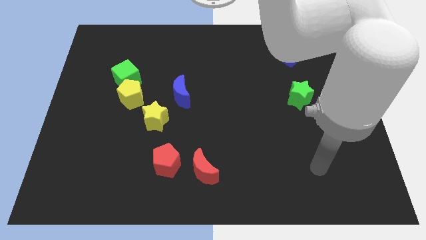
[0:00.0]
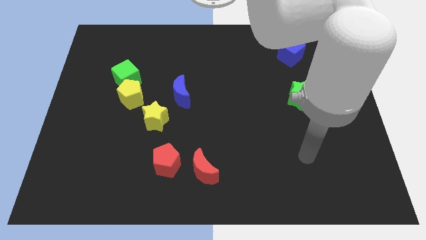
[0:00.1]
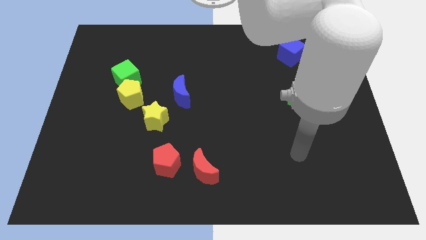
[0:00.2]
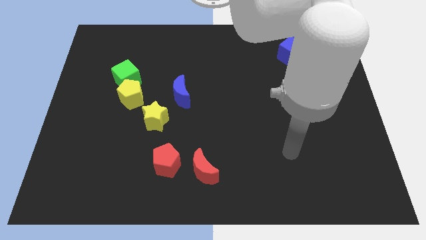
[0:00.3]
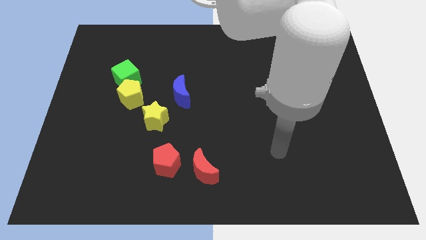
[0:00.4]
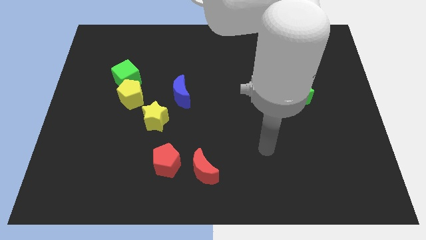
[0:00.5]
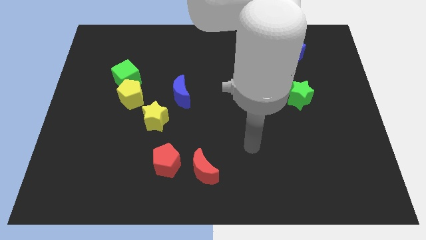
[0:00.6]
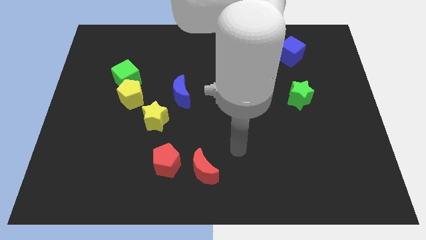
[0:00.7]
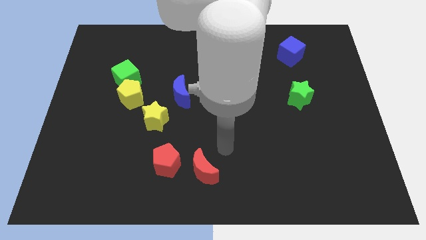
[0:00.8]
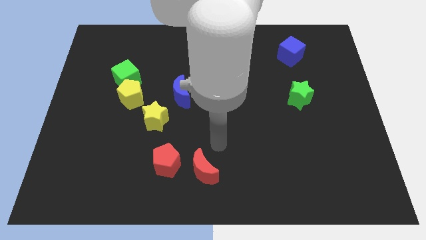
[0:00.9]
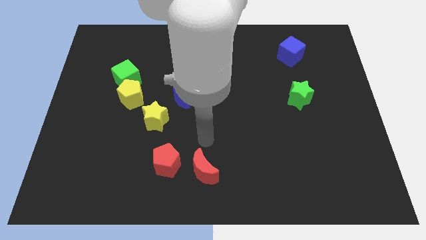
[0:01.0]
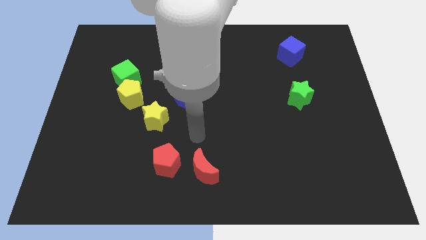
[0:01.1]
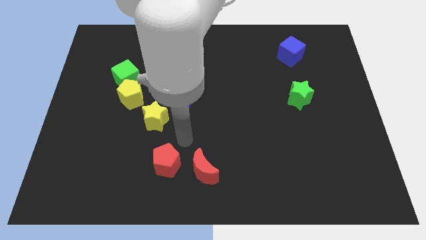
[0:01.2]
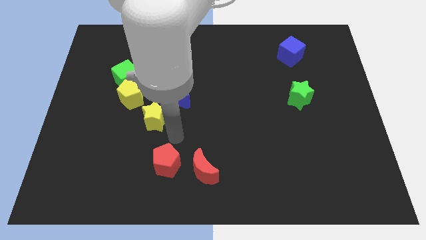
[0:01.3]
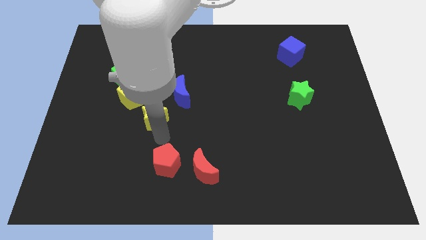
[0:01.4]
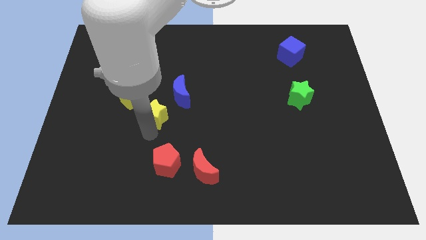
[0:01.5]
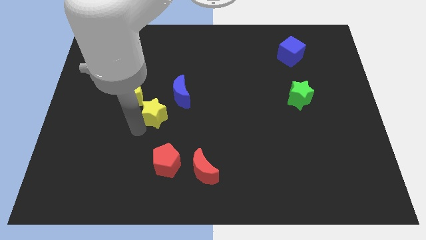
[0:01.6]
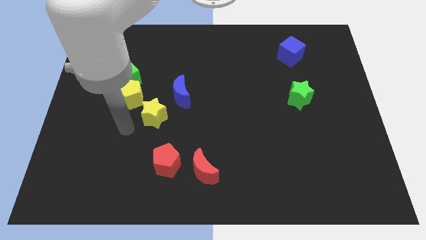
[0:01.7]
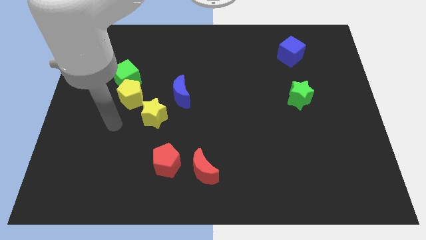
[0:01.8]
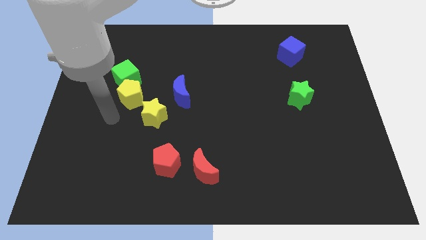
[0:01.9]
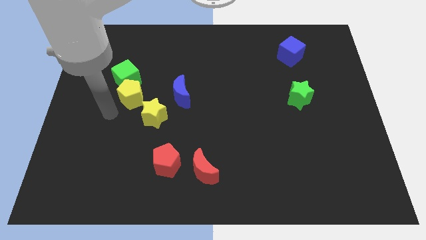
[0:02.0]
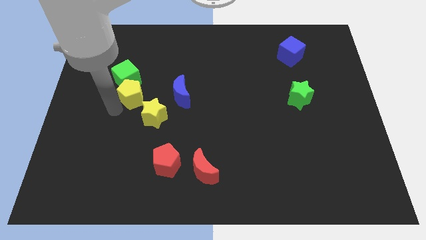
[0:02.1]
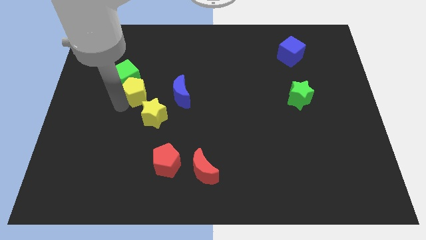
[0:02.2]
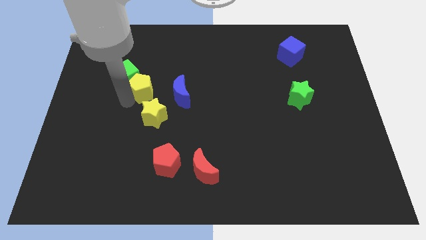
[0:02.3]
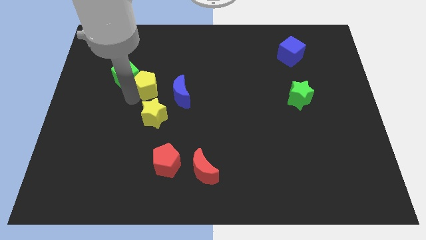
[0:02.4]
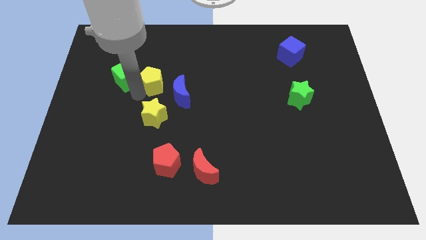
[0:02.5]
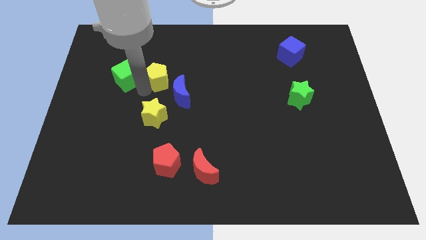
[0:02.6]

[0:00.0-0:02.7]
push the yellow pentagon slightly diagonally upwards and to the right

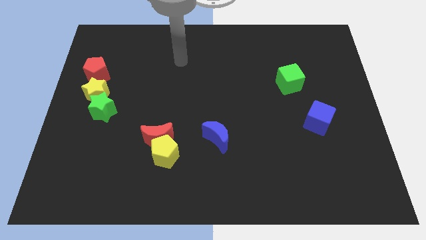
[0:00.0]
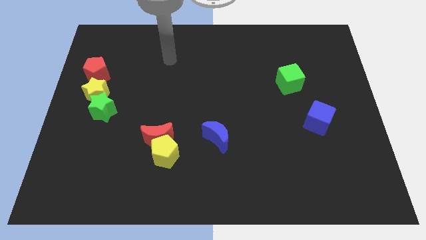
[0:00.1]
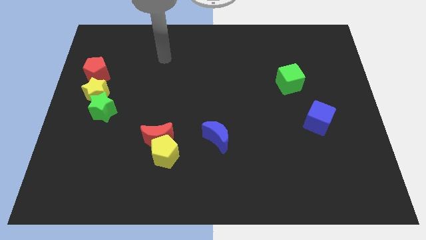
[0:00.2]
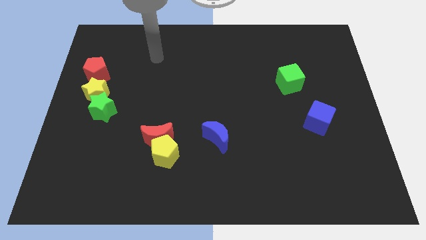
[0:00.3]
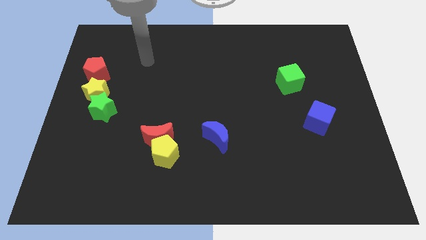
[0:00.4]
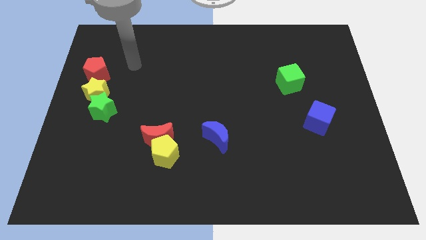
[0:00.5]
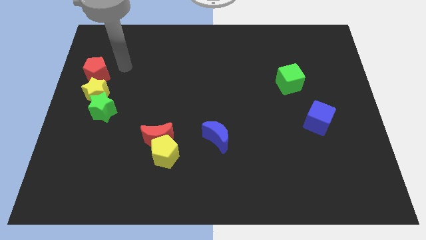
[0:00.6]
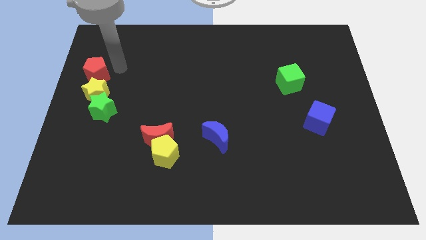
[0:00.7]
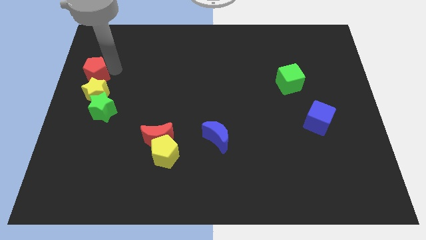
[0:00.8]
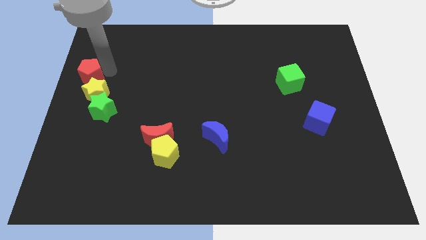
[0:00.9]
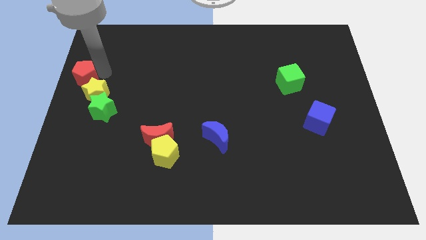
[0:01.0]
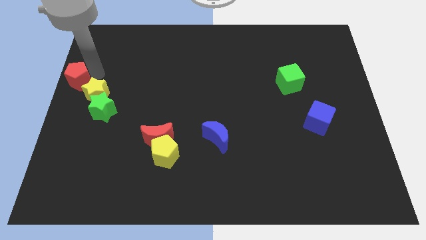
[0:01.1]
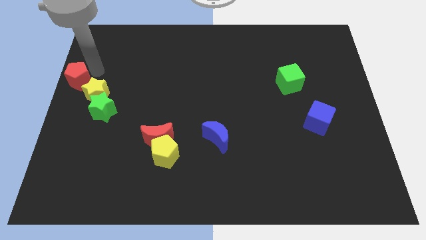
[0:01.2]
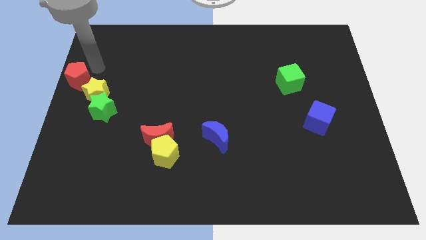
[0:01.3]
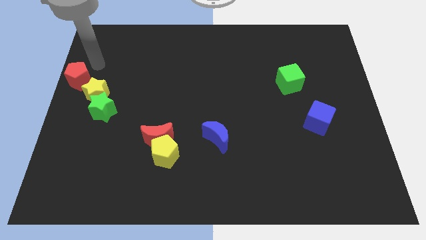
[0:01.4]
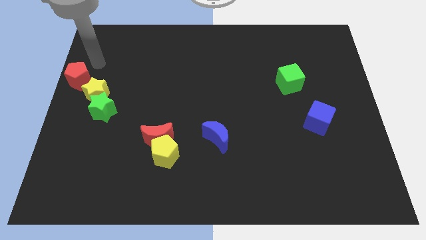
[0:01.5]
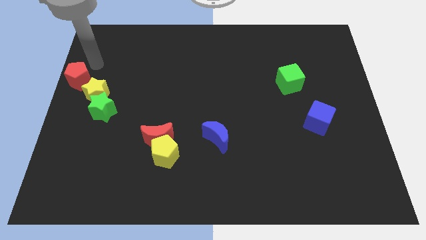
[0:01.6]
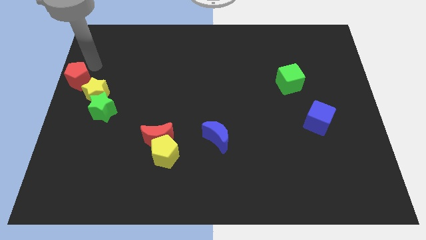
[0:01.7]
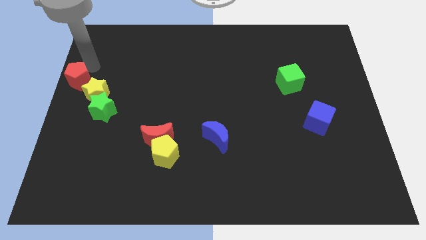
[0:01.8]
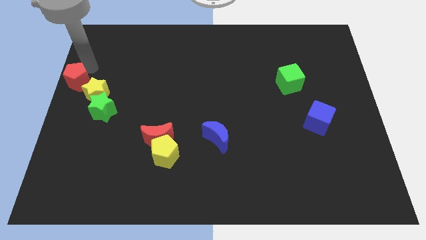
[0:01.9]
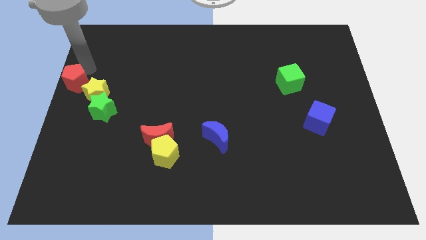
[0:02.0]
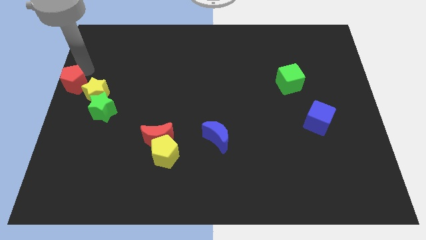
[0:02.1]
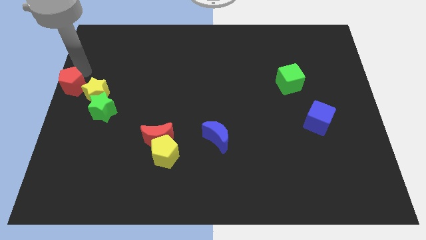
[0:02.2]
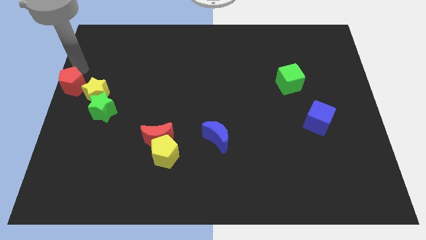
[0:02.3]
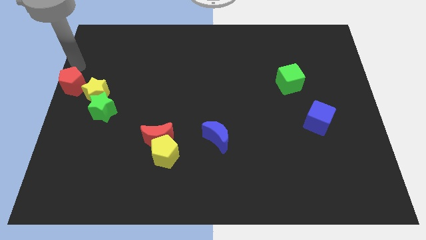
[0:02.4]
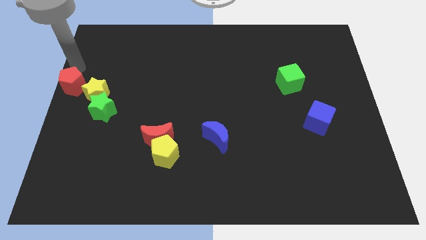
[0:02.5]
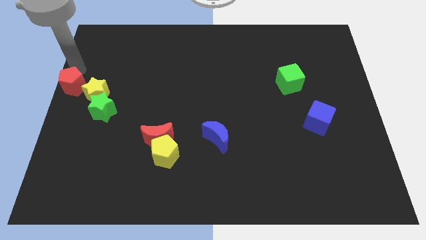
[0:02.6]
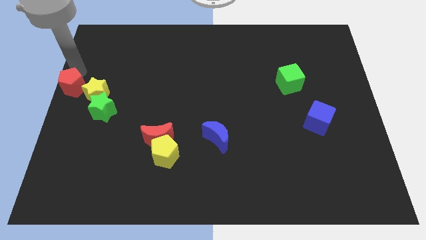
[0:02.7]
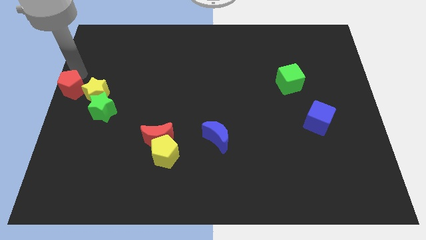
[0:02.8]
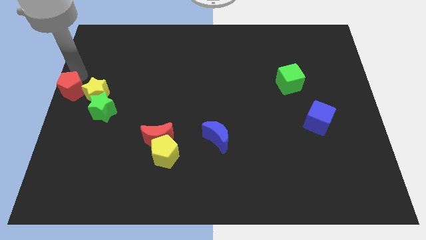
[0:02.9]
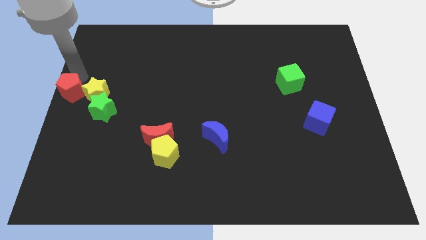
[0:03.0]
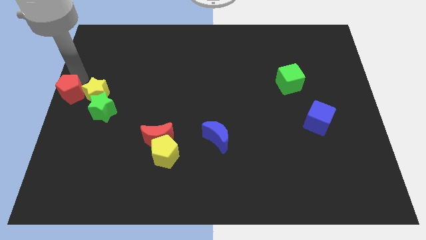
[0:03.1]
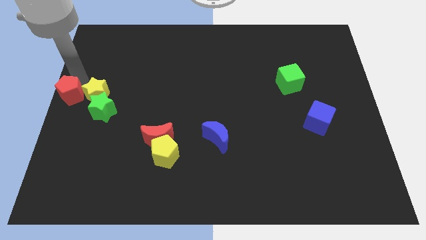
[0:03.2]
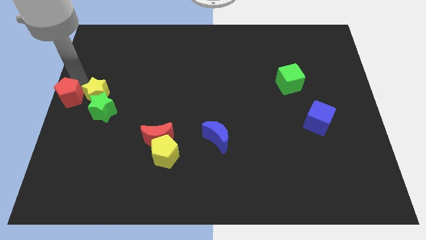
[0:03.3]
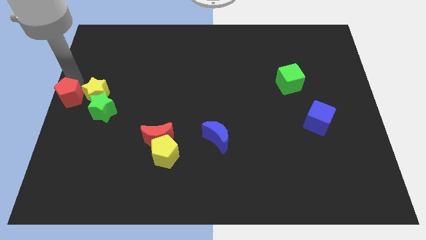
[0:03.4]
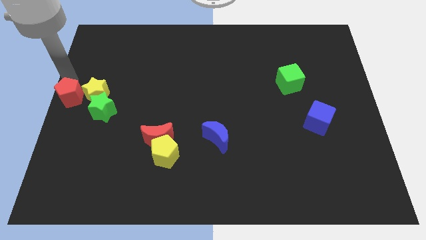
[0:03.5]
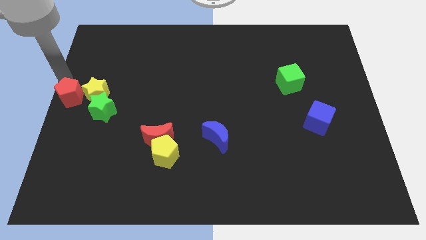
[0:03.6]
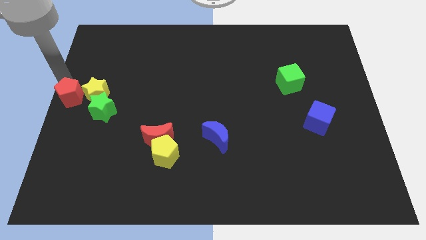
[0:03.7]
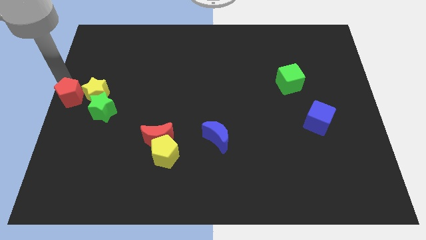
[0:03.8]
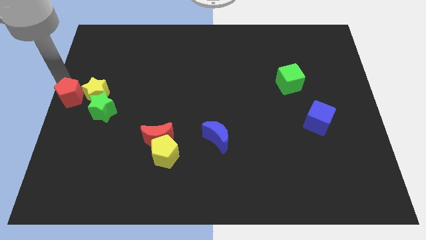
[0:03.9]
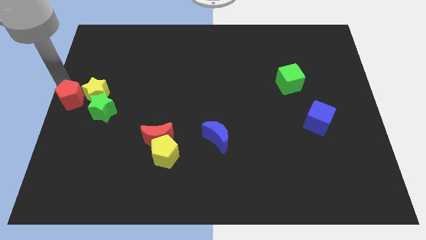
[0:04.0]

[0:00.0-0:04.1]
push the red pentagon downwards a little bit

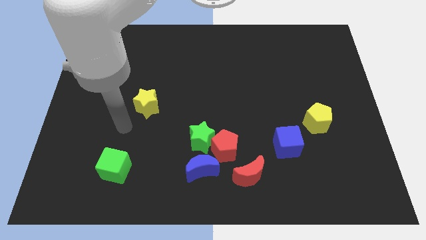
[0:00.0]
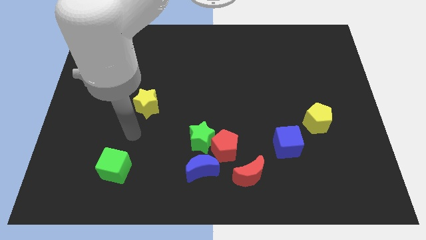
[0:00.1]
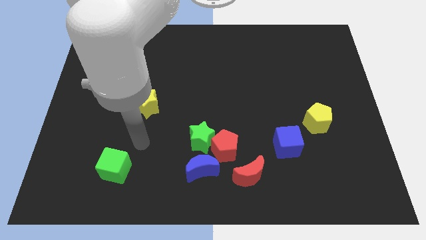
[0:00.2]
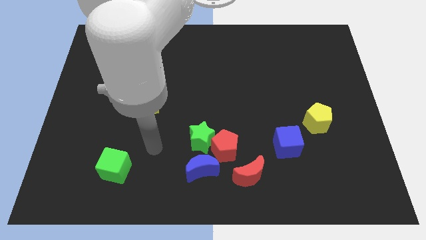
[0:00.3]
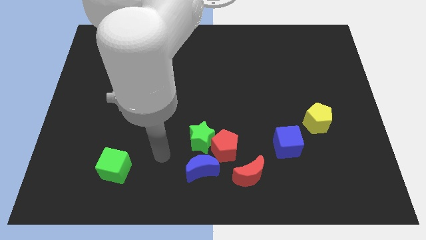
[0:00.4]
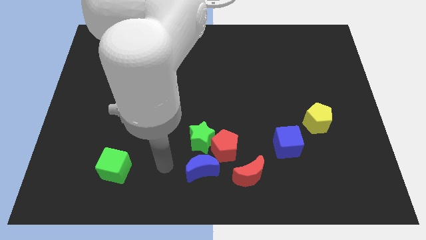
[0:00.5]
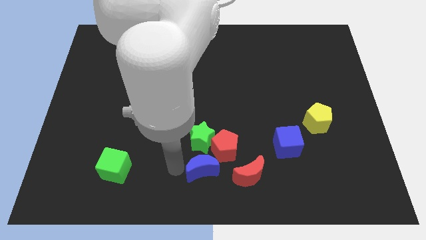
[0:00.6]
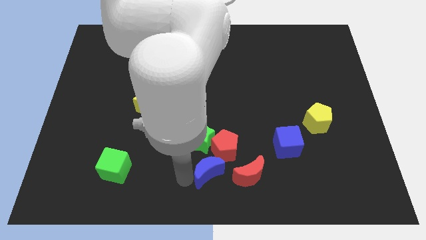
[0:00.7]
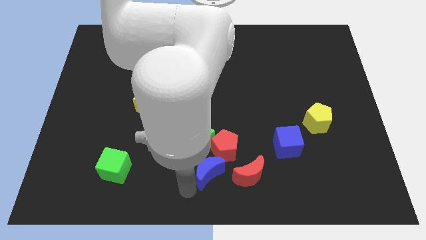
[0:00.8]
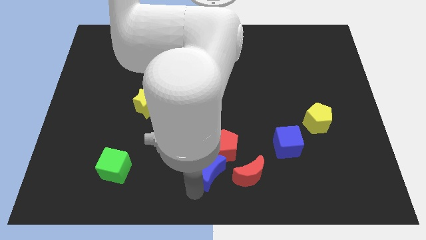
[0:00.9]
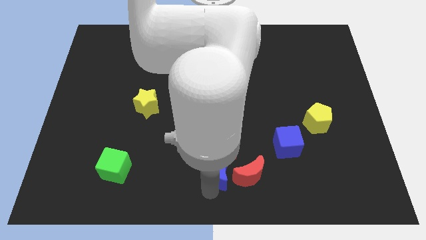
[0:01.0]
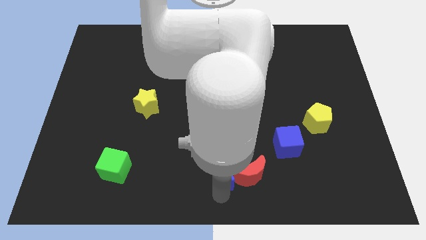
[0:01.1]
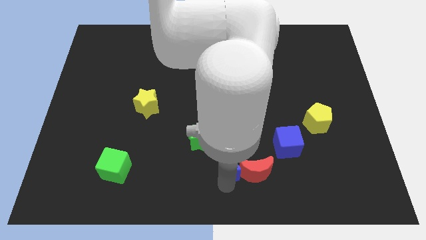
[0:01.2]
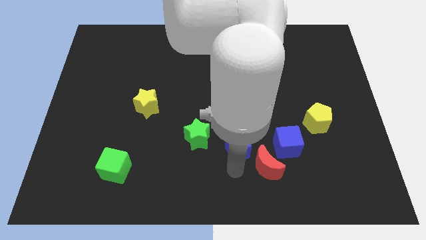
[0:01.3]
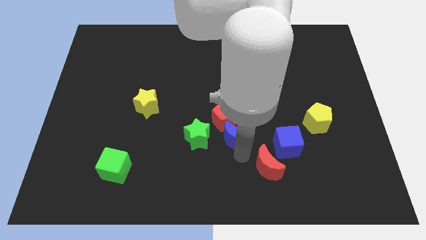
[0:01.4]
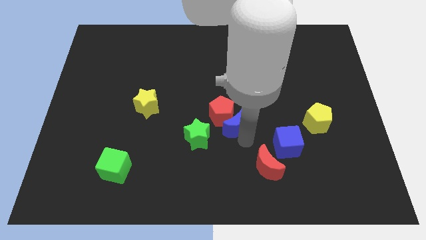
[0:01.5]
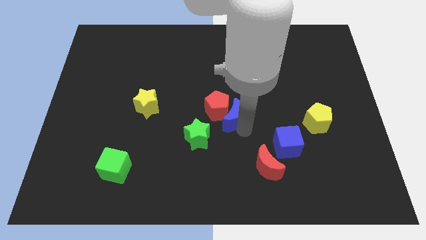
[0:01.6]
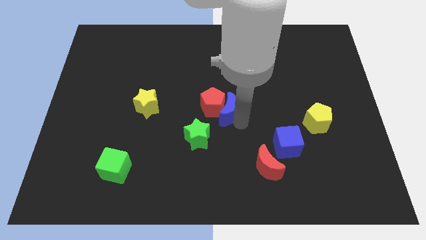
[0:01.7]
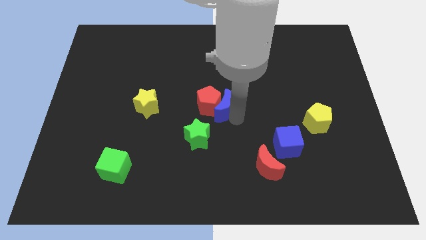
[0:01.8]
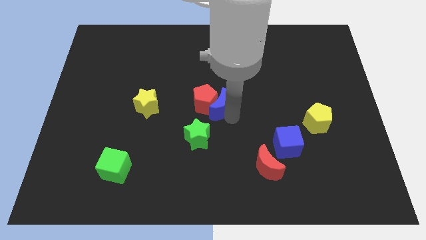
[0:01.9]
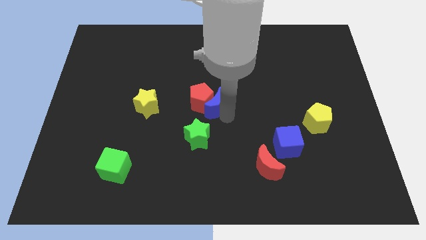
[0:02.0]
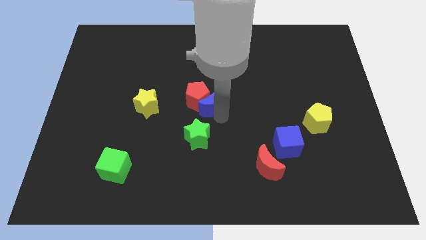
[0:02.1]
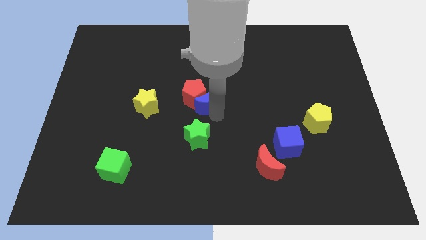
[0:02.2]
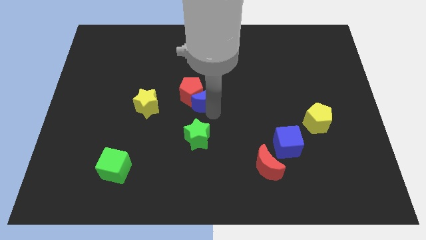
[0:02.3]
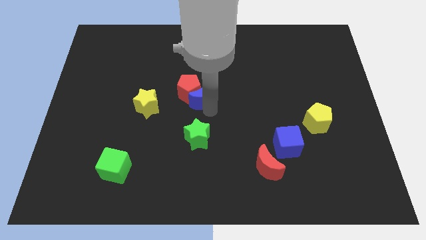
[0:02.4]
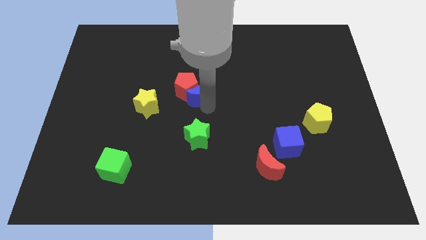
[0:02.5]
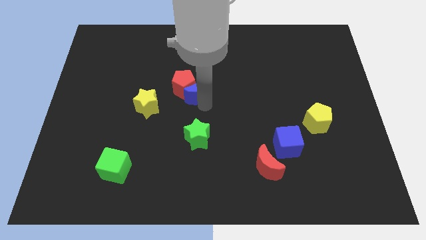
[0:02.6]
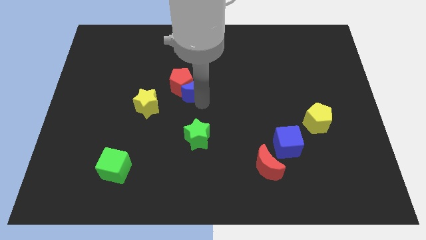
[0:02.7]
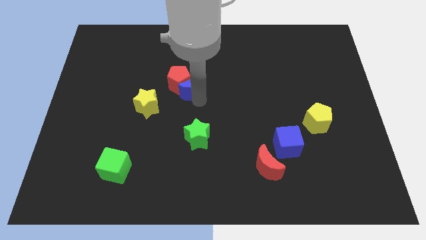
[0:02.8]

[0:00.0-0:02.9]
move the red pentagon up and left diagonally
